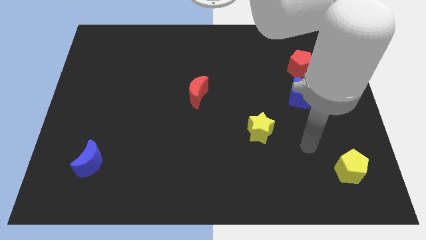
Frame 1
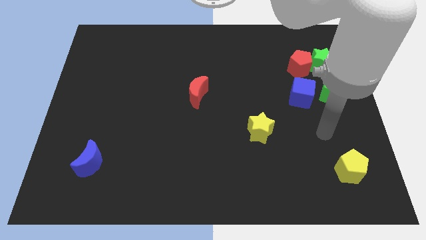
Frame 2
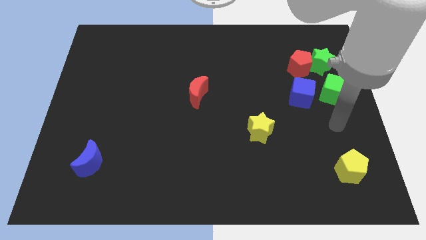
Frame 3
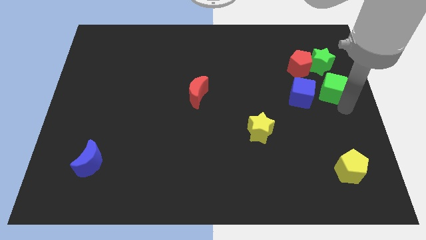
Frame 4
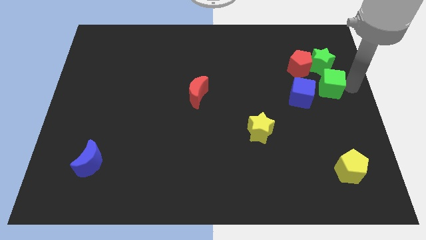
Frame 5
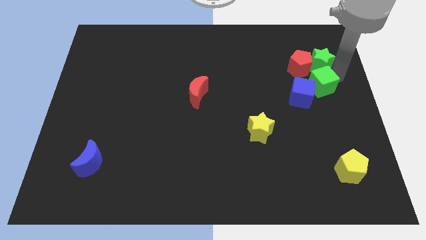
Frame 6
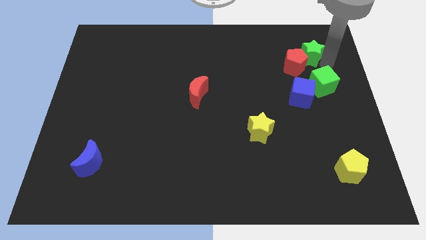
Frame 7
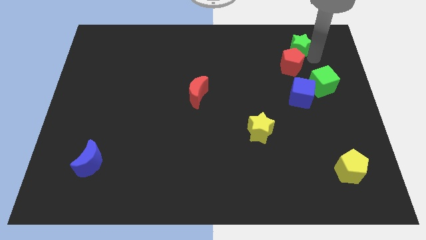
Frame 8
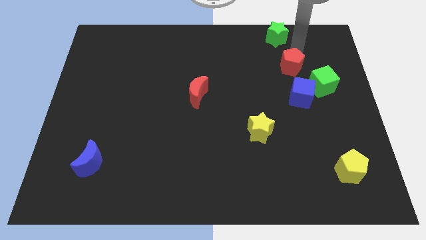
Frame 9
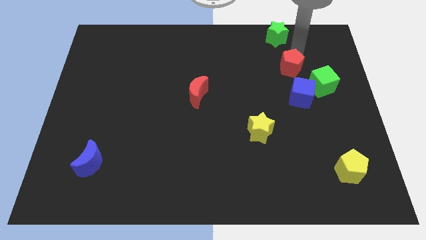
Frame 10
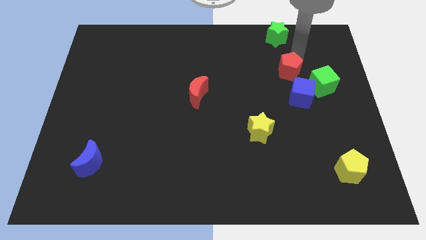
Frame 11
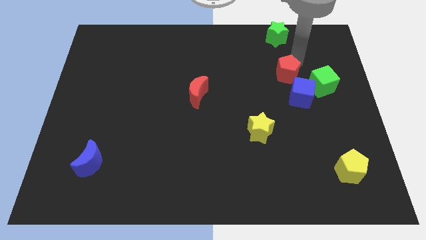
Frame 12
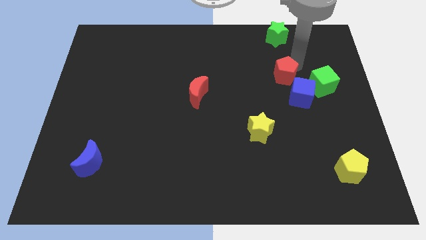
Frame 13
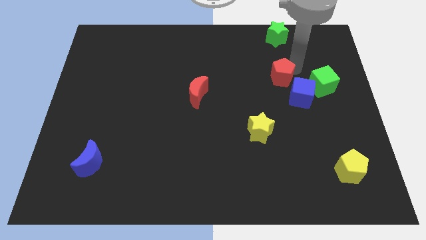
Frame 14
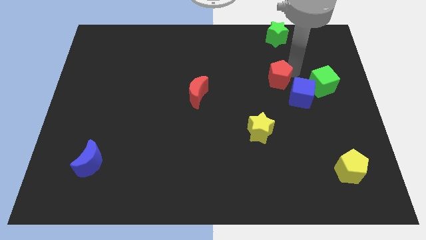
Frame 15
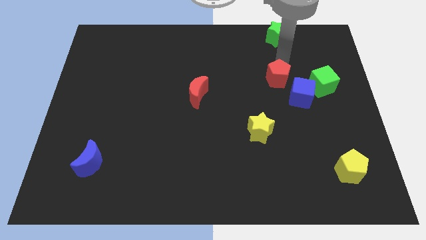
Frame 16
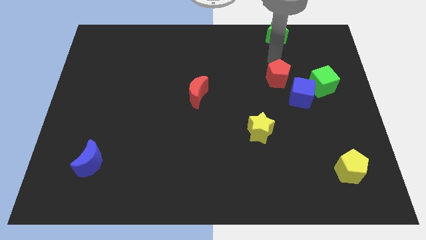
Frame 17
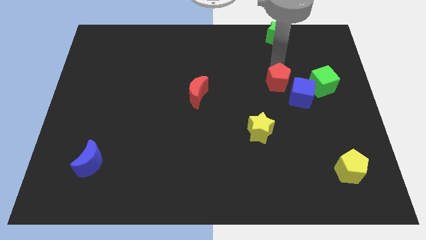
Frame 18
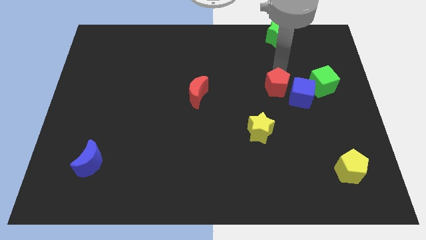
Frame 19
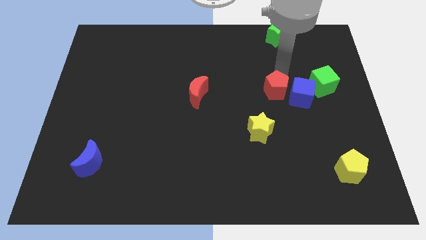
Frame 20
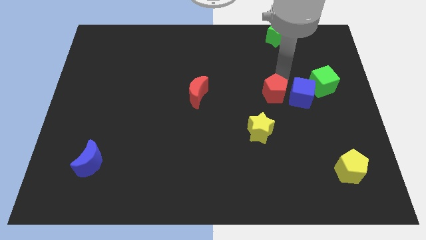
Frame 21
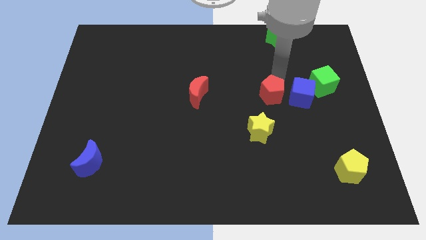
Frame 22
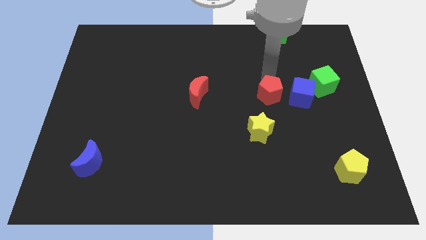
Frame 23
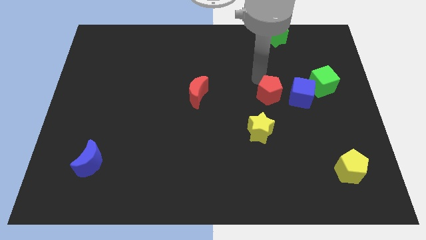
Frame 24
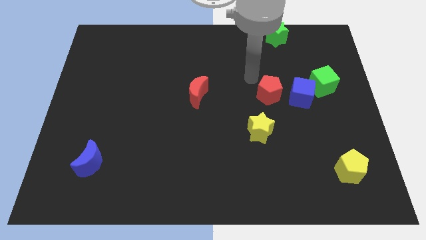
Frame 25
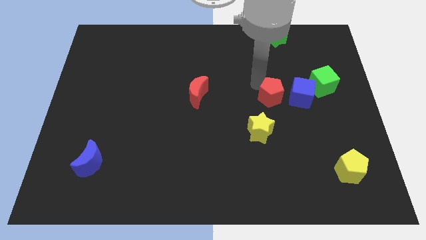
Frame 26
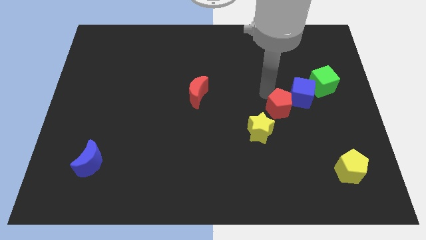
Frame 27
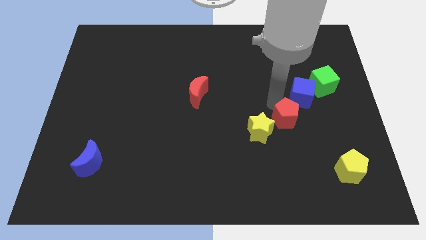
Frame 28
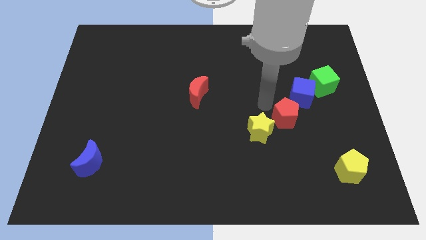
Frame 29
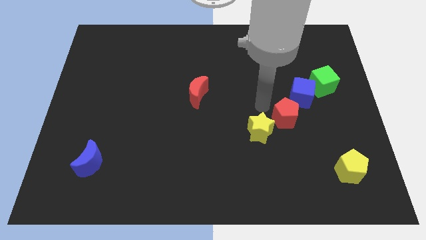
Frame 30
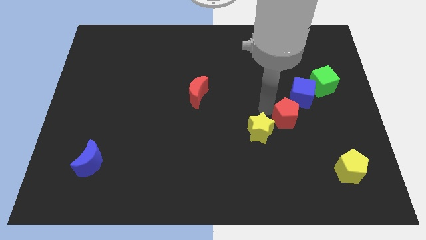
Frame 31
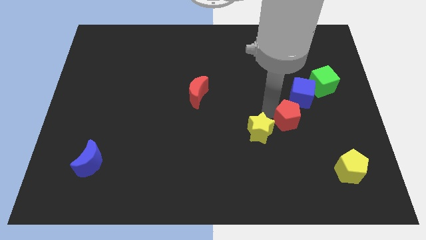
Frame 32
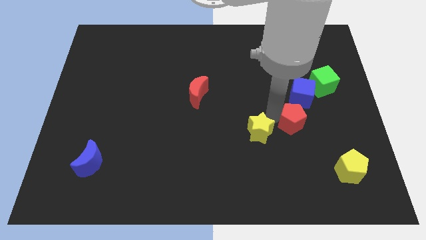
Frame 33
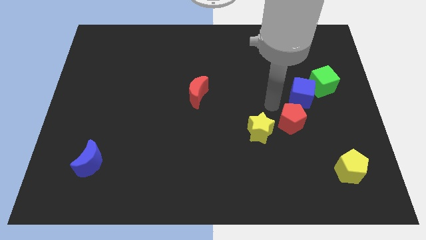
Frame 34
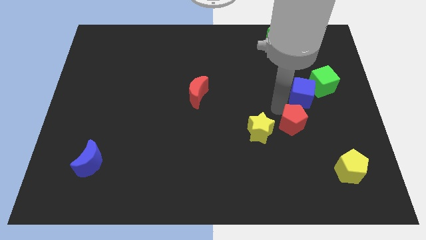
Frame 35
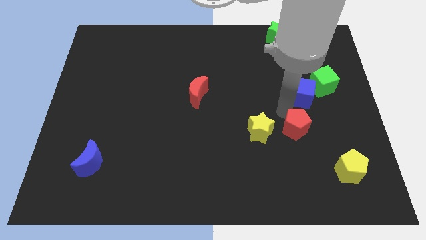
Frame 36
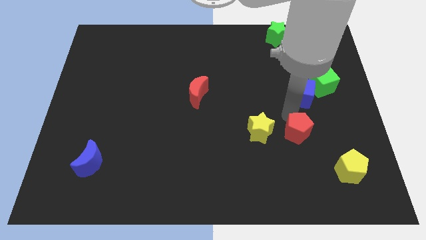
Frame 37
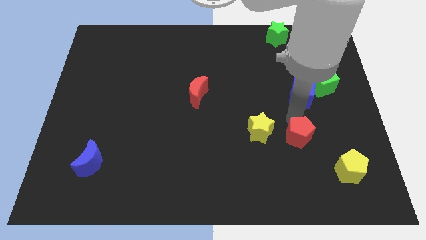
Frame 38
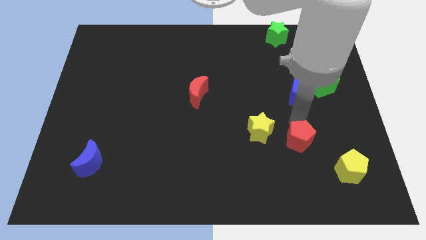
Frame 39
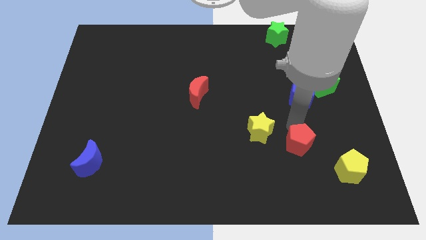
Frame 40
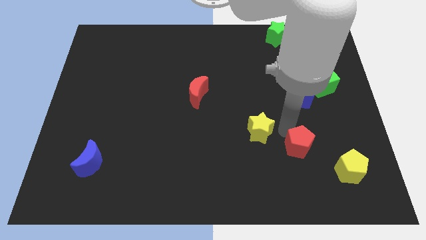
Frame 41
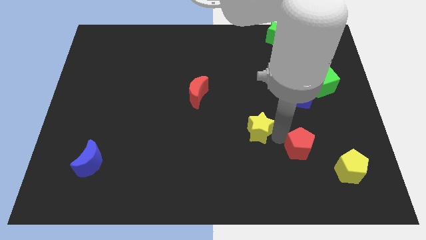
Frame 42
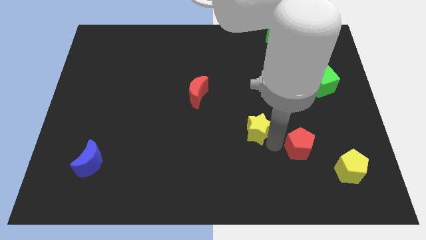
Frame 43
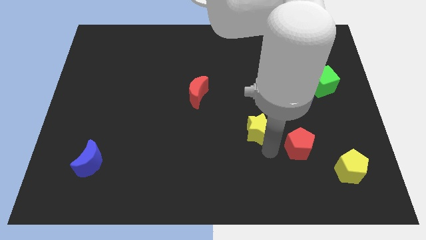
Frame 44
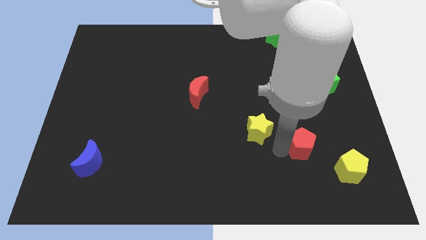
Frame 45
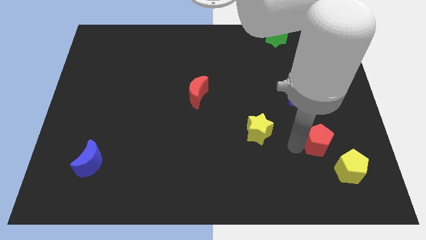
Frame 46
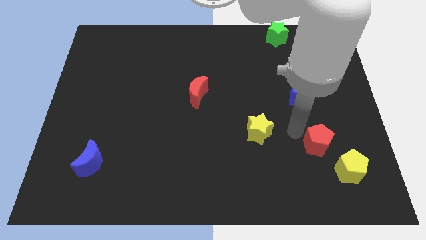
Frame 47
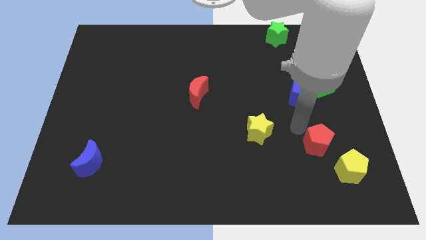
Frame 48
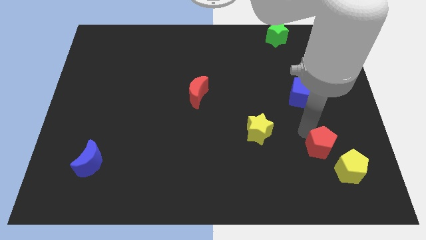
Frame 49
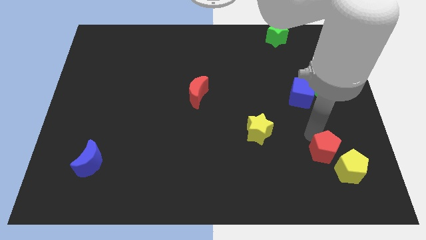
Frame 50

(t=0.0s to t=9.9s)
push the red pentagon close to the yellow pentagon

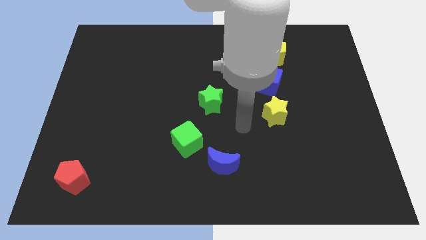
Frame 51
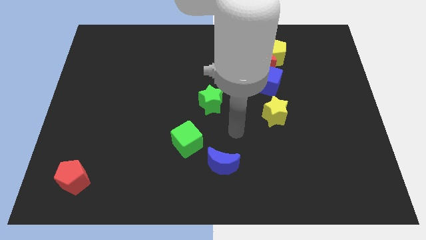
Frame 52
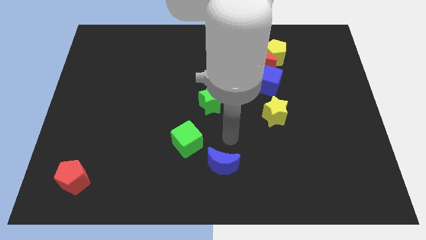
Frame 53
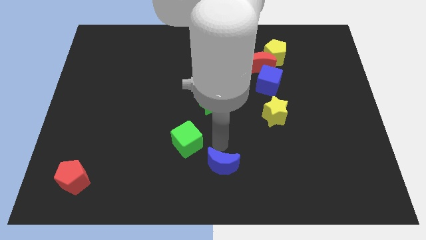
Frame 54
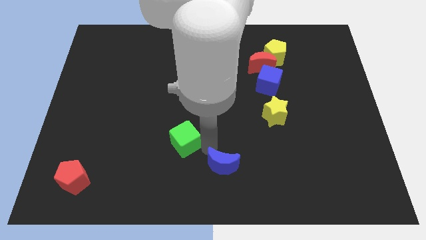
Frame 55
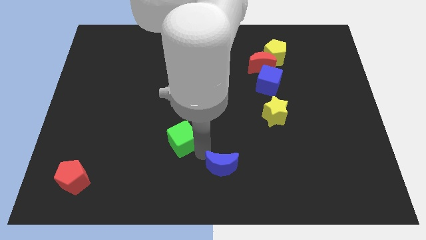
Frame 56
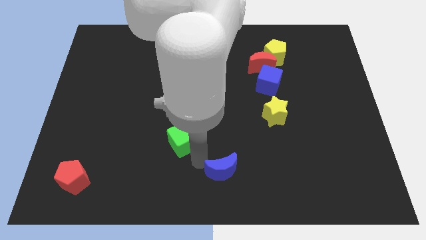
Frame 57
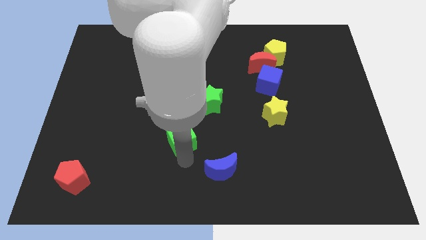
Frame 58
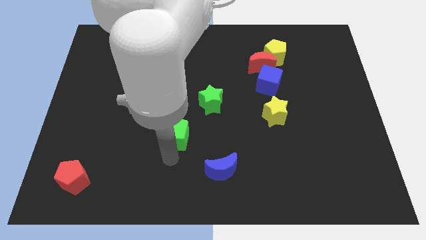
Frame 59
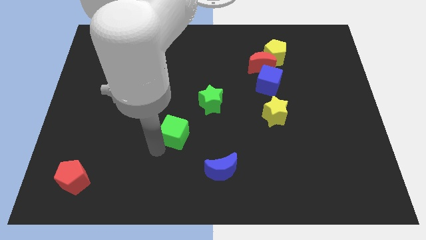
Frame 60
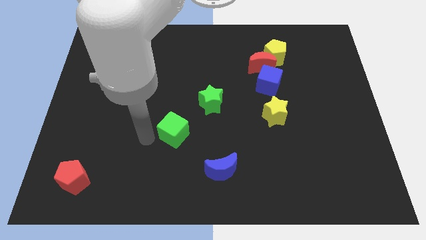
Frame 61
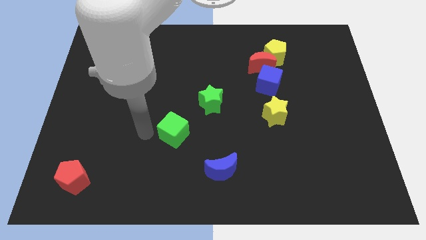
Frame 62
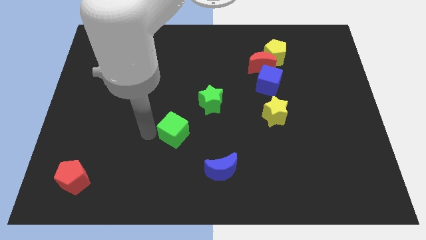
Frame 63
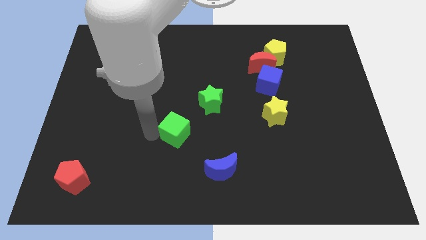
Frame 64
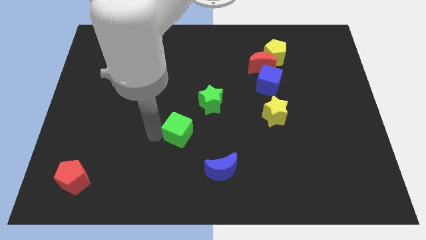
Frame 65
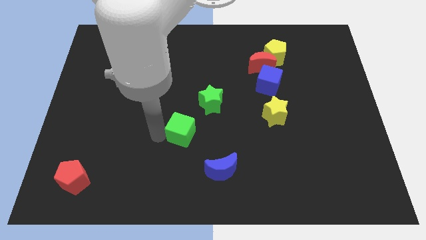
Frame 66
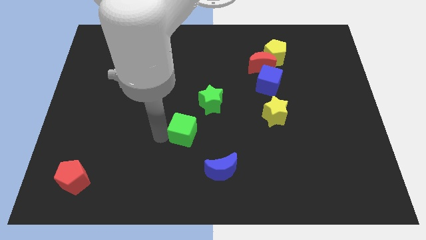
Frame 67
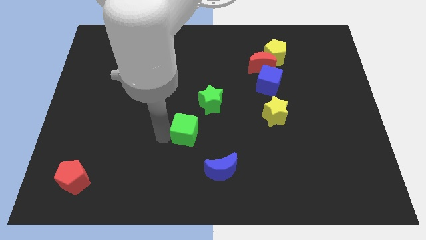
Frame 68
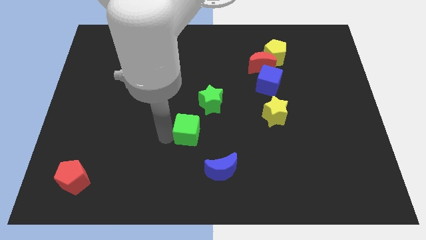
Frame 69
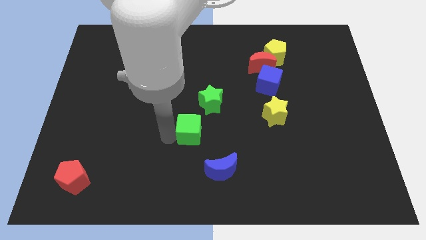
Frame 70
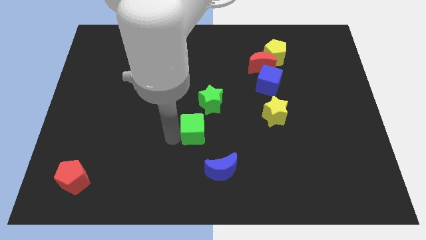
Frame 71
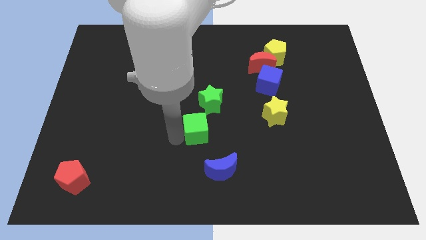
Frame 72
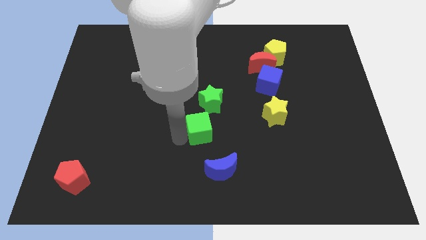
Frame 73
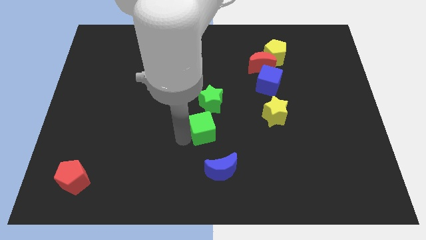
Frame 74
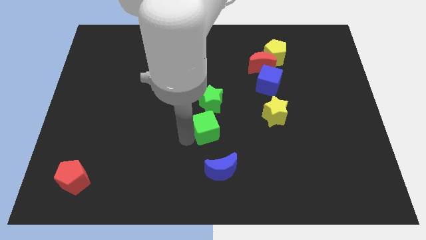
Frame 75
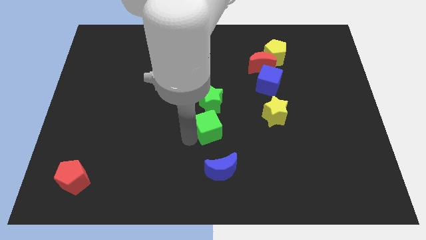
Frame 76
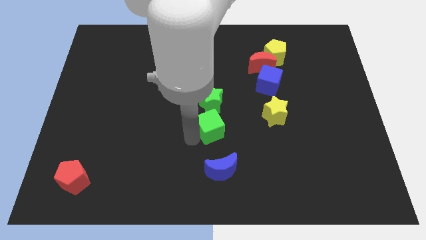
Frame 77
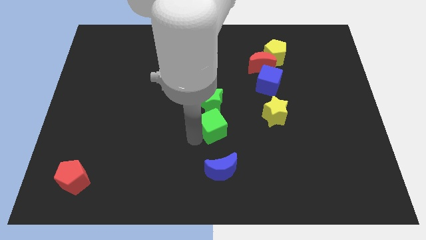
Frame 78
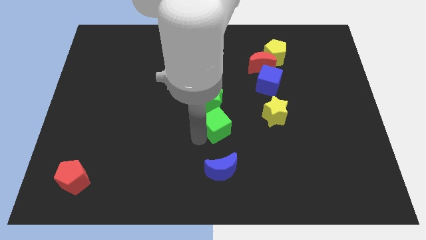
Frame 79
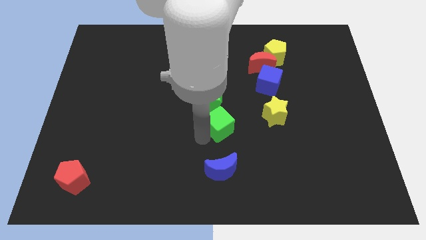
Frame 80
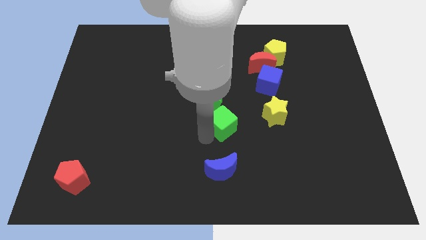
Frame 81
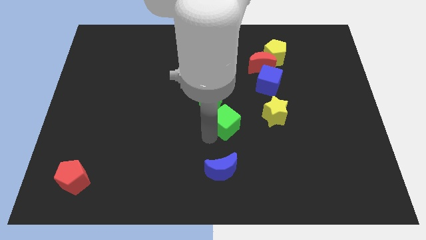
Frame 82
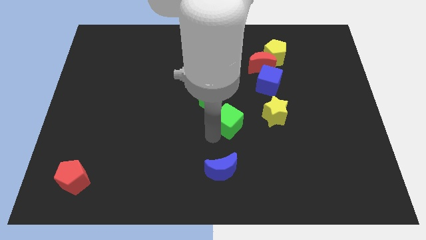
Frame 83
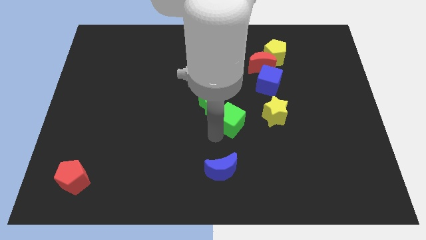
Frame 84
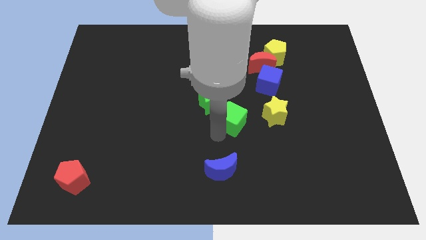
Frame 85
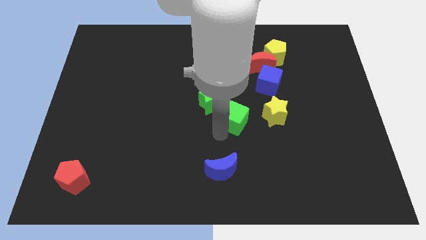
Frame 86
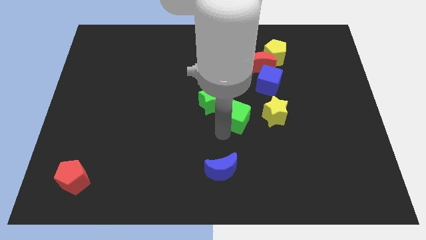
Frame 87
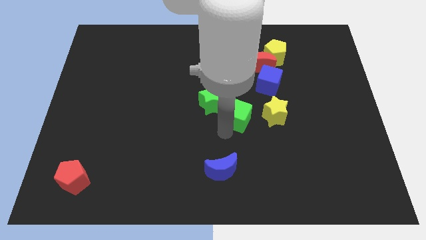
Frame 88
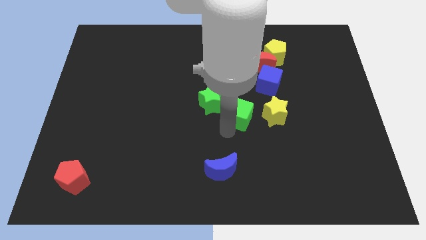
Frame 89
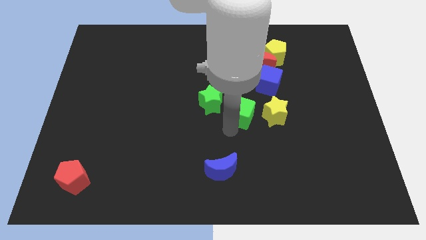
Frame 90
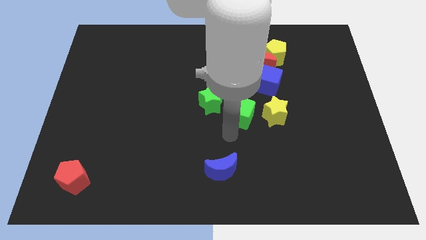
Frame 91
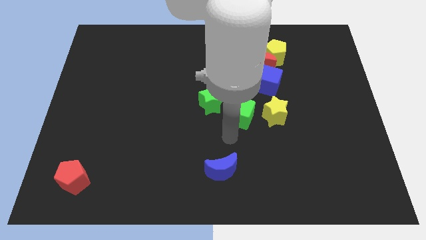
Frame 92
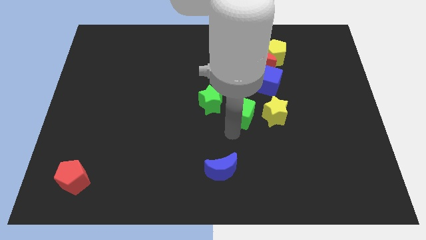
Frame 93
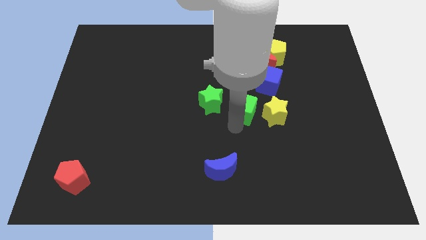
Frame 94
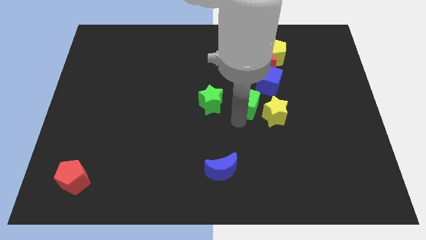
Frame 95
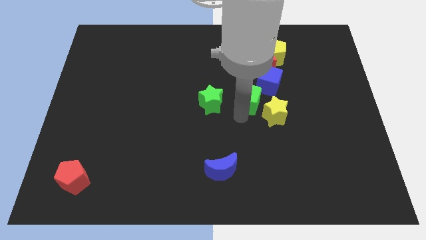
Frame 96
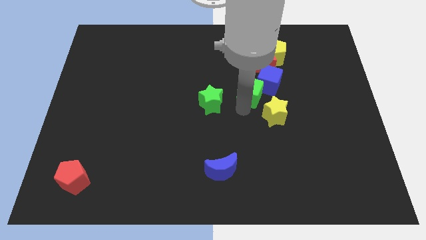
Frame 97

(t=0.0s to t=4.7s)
push the green cube towards the blue cube
